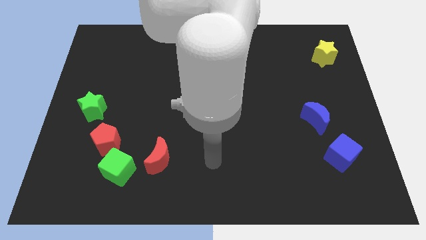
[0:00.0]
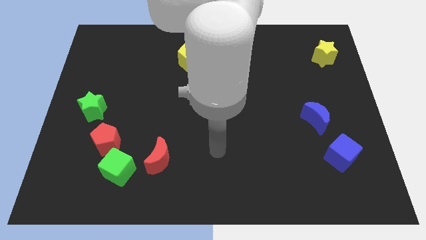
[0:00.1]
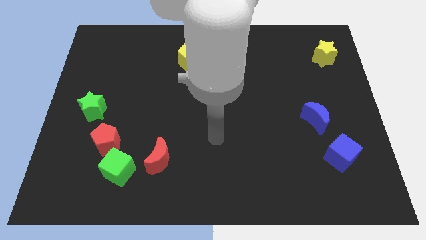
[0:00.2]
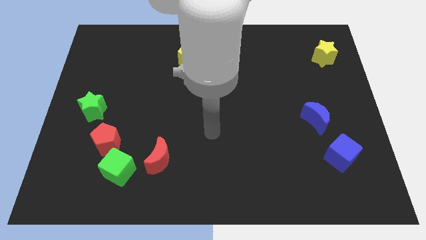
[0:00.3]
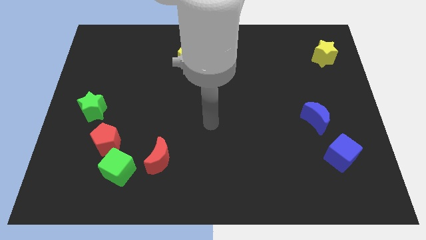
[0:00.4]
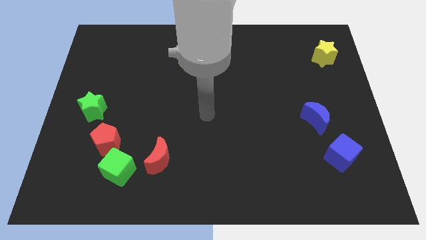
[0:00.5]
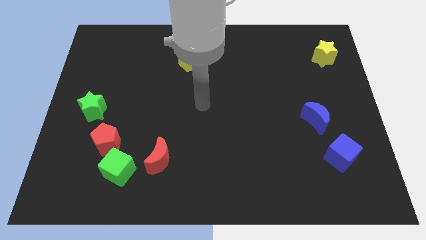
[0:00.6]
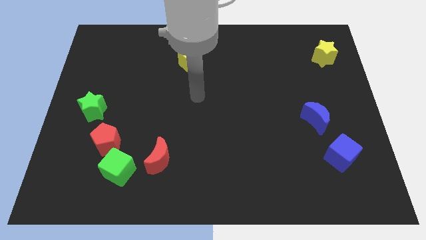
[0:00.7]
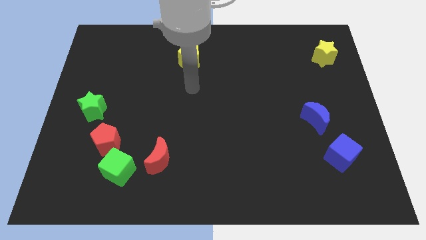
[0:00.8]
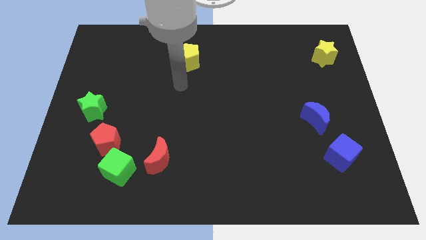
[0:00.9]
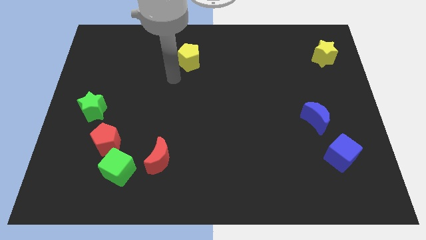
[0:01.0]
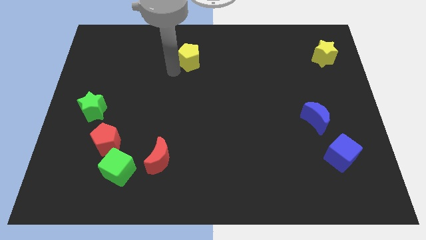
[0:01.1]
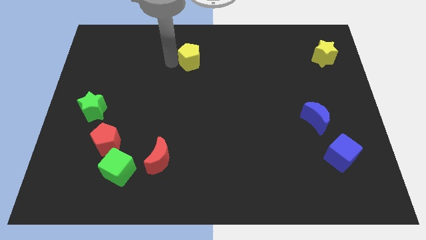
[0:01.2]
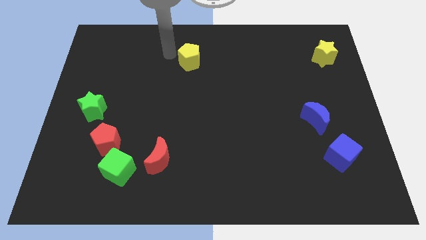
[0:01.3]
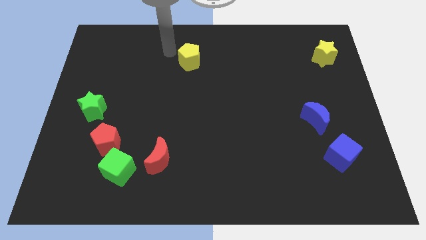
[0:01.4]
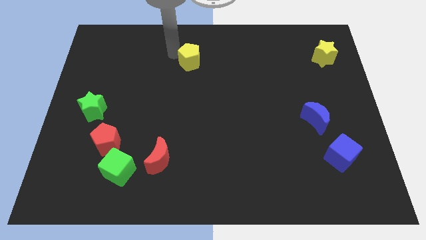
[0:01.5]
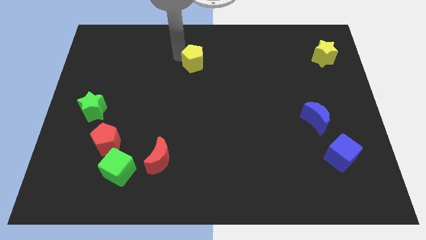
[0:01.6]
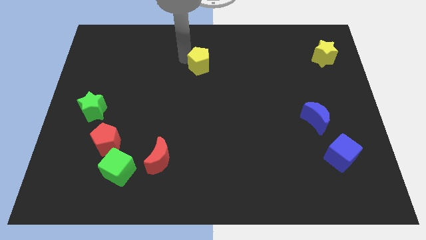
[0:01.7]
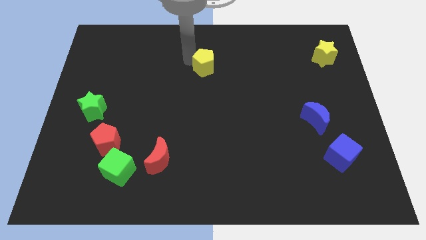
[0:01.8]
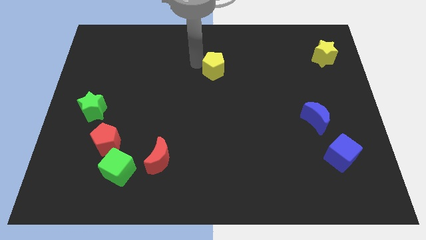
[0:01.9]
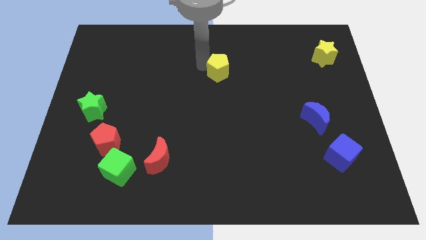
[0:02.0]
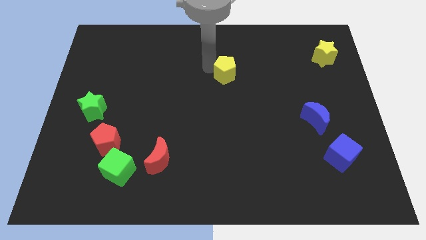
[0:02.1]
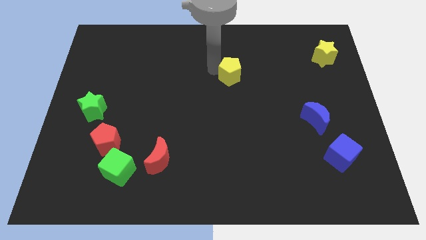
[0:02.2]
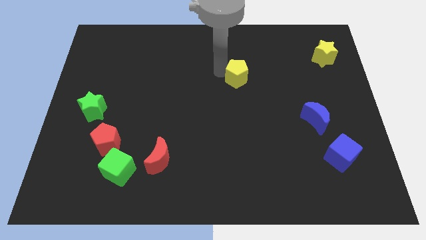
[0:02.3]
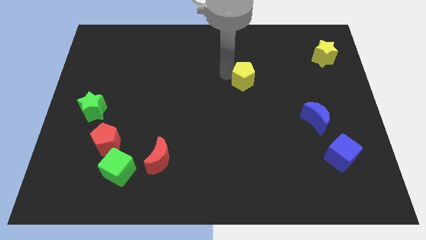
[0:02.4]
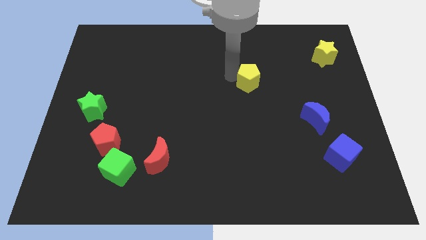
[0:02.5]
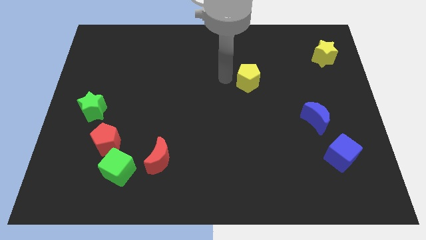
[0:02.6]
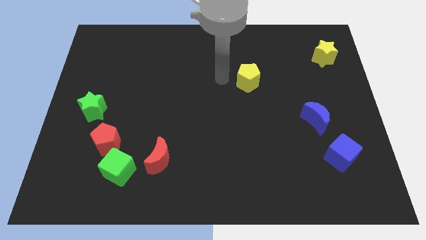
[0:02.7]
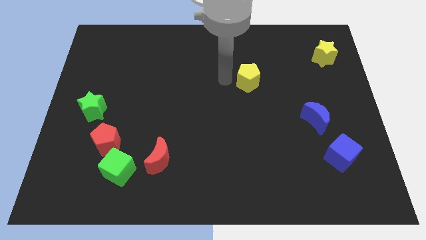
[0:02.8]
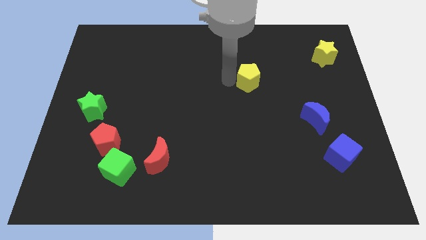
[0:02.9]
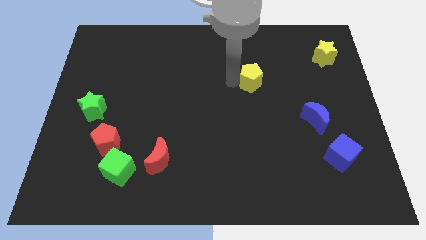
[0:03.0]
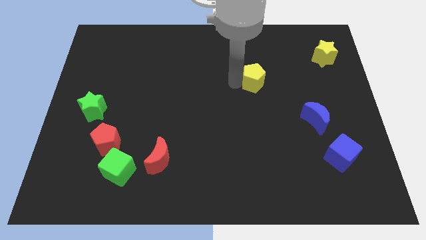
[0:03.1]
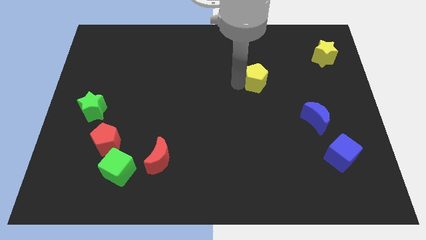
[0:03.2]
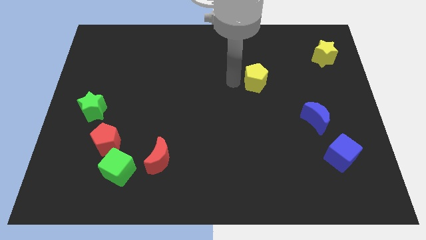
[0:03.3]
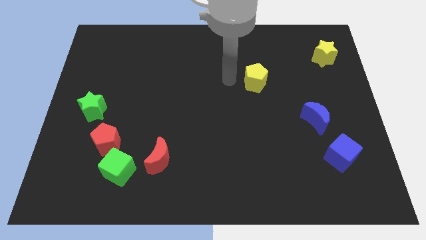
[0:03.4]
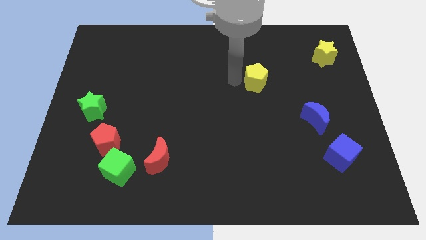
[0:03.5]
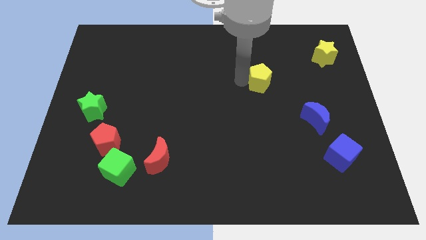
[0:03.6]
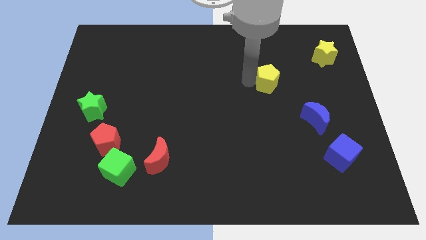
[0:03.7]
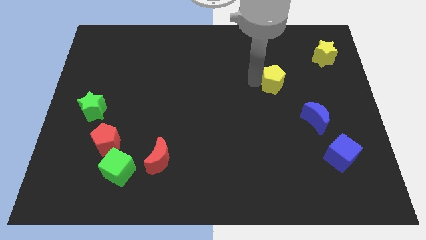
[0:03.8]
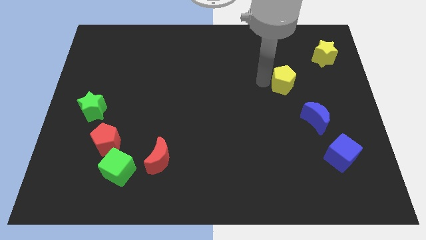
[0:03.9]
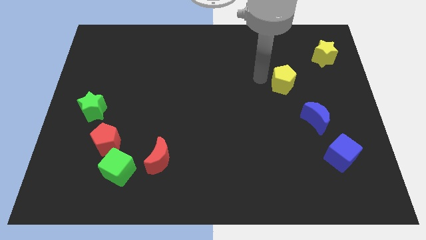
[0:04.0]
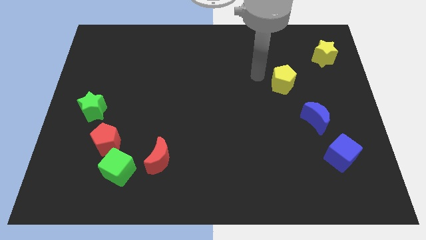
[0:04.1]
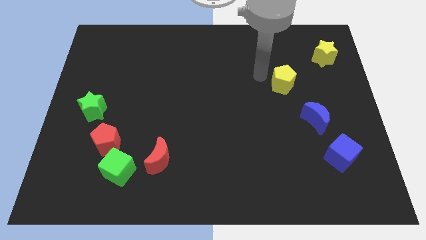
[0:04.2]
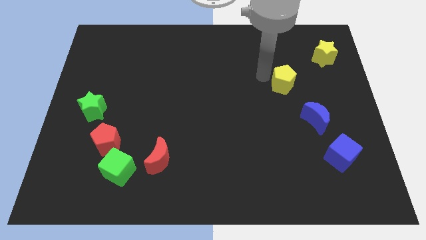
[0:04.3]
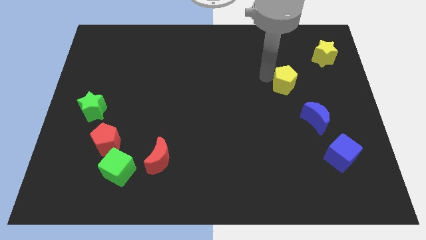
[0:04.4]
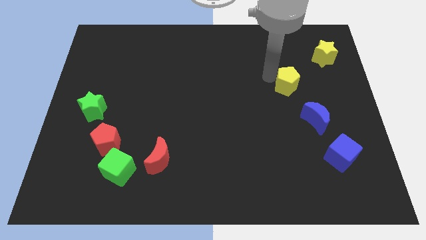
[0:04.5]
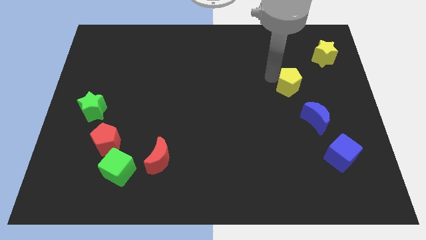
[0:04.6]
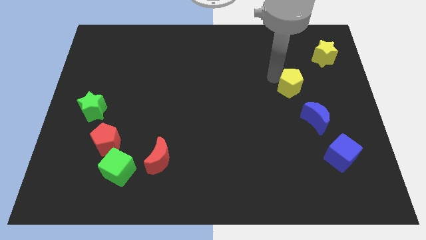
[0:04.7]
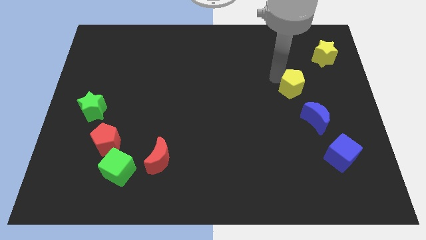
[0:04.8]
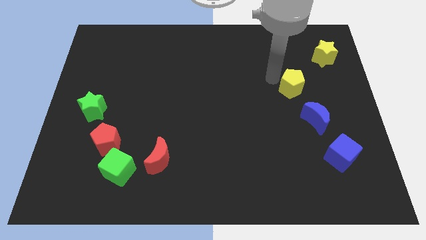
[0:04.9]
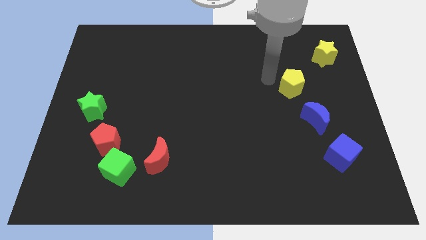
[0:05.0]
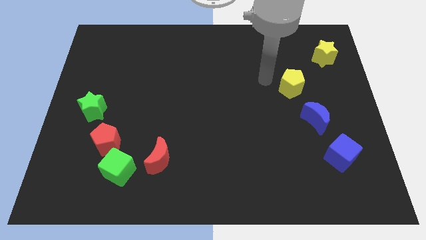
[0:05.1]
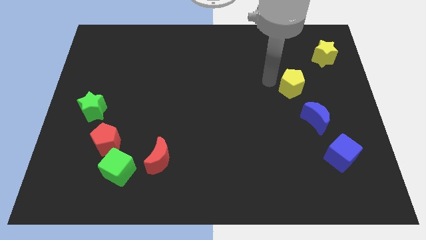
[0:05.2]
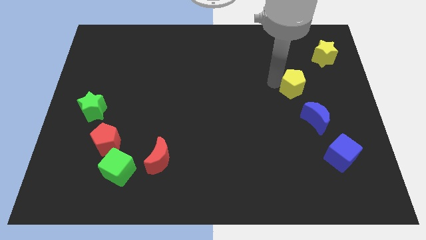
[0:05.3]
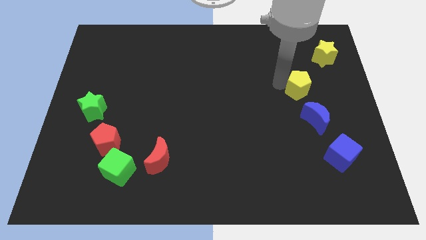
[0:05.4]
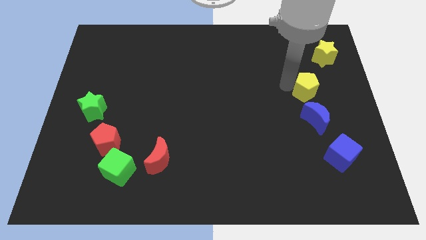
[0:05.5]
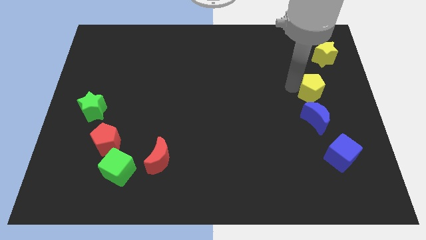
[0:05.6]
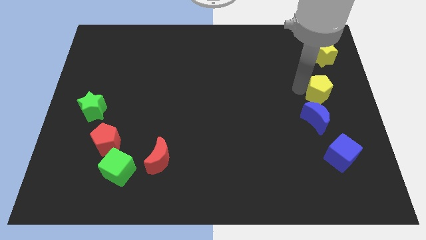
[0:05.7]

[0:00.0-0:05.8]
put the yellow pentagon to the center right

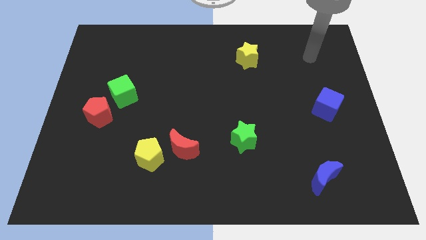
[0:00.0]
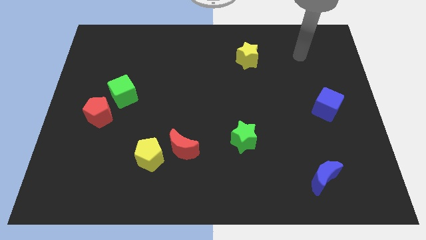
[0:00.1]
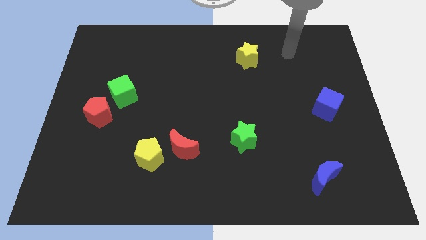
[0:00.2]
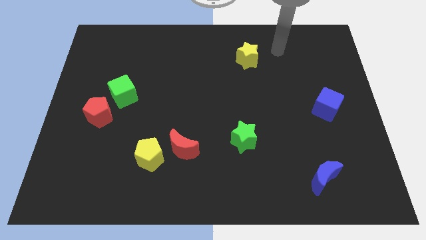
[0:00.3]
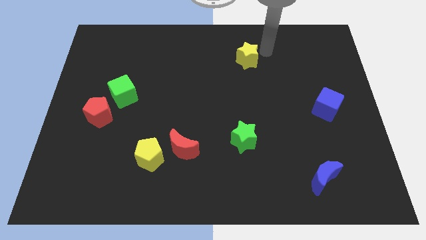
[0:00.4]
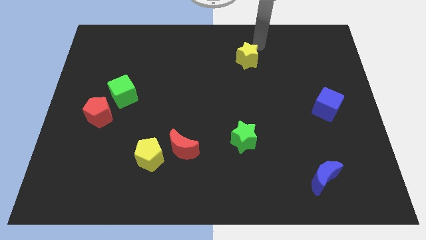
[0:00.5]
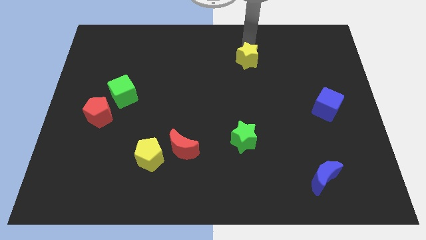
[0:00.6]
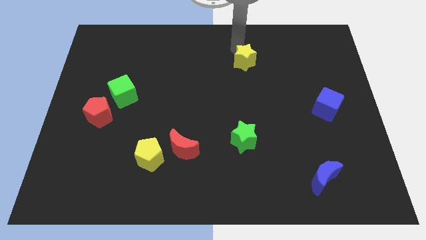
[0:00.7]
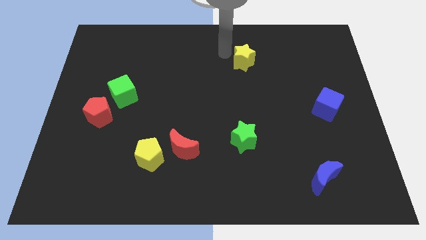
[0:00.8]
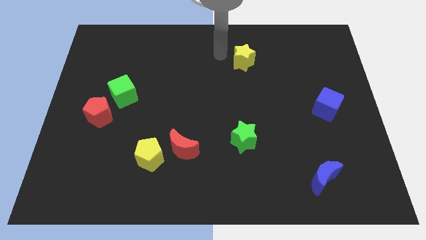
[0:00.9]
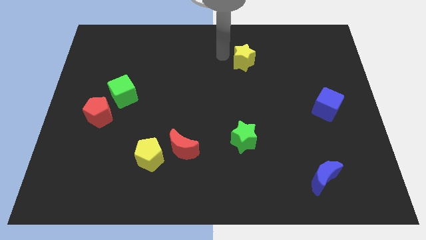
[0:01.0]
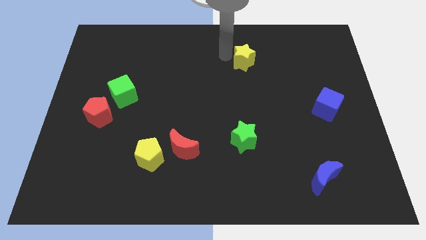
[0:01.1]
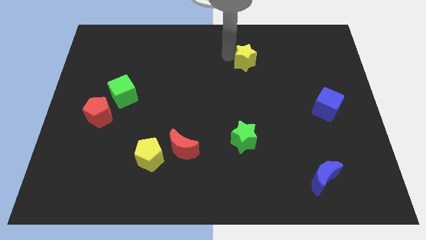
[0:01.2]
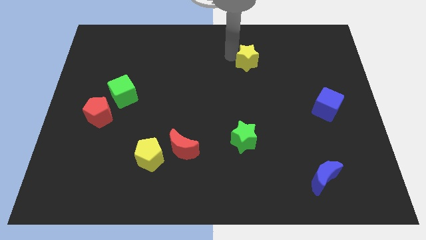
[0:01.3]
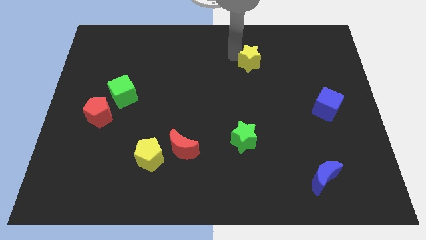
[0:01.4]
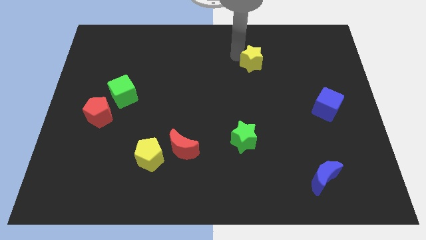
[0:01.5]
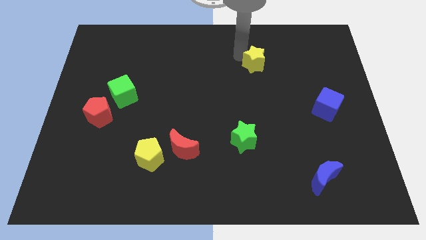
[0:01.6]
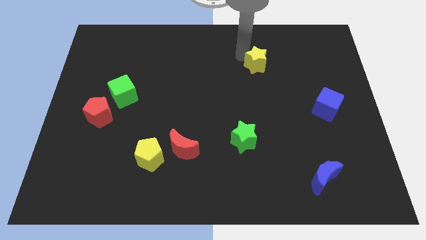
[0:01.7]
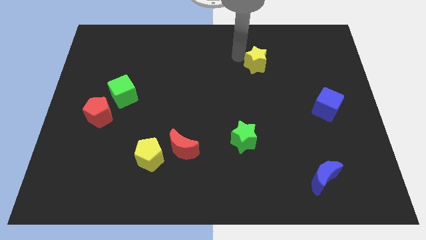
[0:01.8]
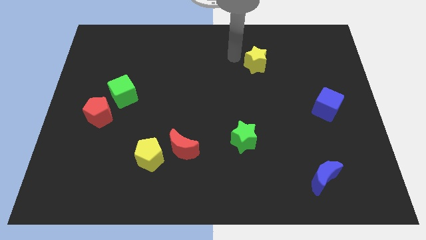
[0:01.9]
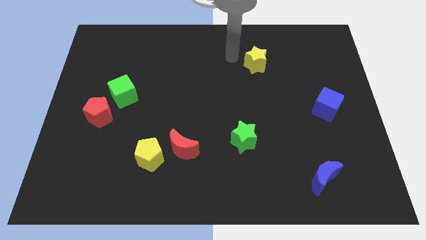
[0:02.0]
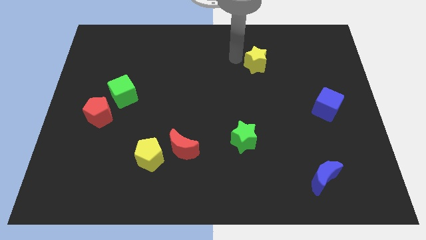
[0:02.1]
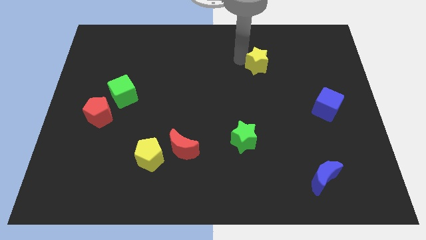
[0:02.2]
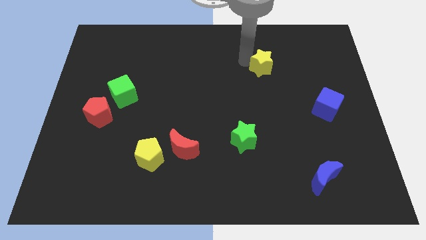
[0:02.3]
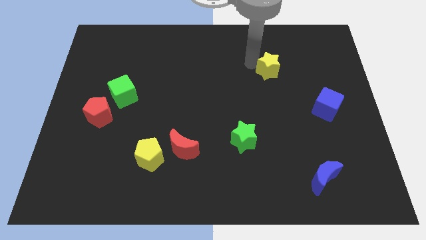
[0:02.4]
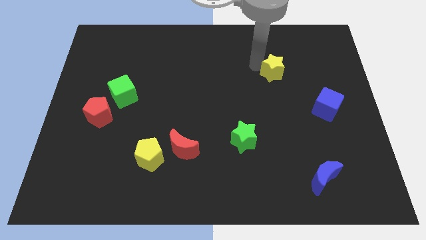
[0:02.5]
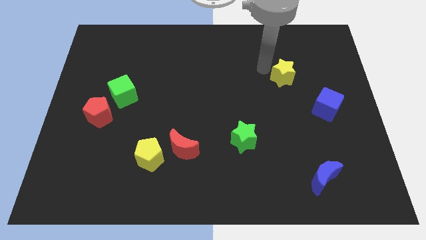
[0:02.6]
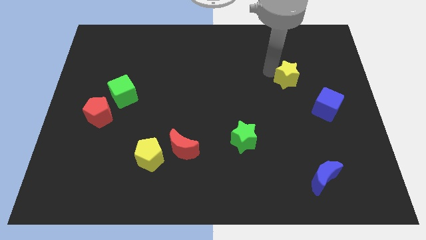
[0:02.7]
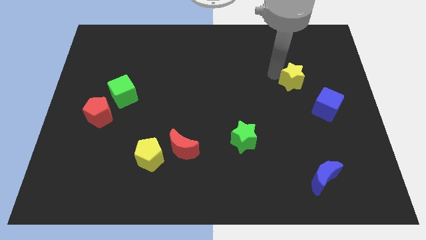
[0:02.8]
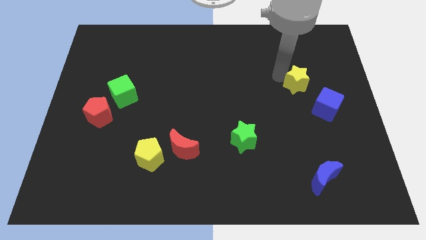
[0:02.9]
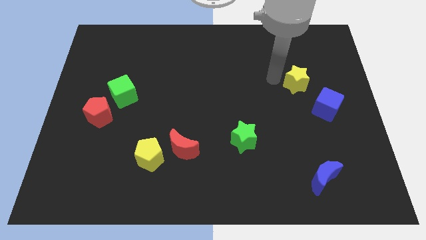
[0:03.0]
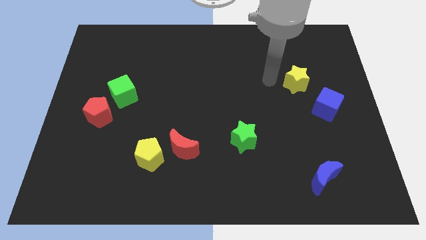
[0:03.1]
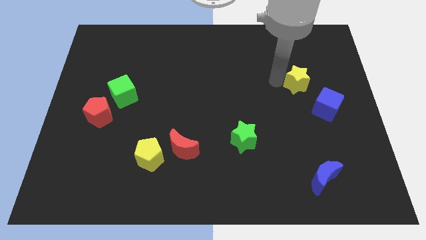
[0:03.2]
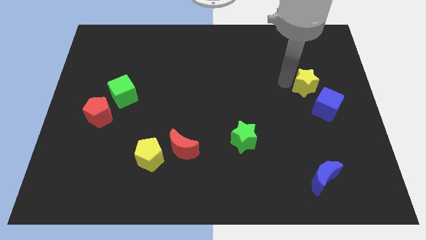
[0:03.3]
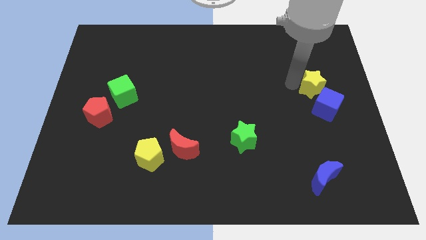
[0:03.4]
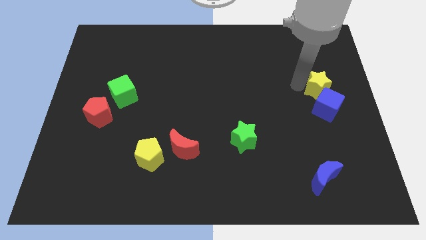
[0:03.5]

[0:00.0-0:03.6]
push the yellow star to the right side
